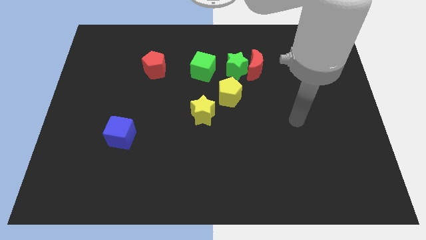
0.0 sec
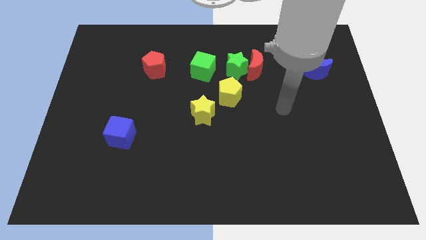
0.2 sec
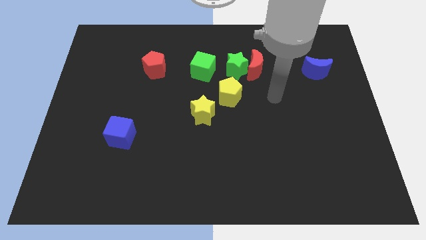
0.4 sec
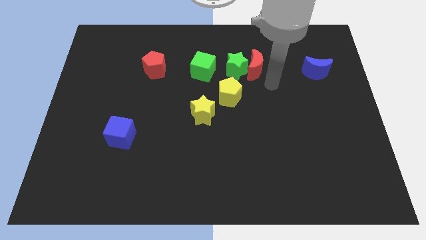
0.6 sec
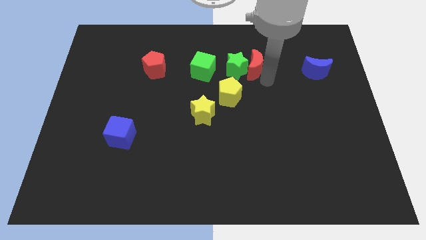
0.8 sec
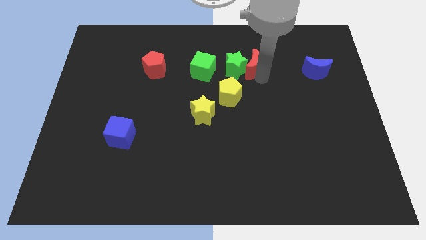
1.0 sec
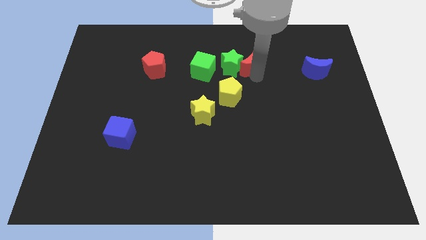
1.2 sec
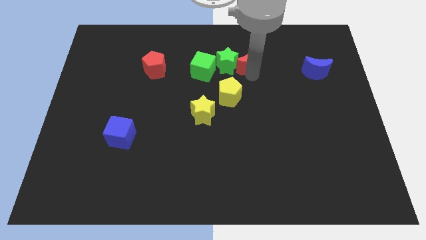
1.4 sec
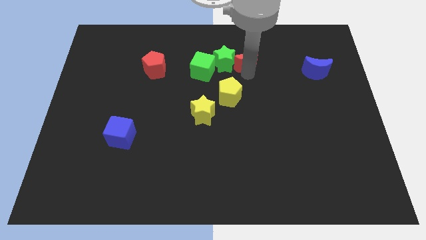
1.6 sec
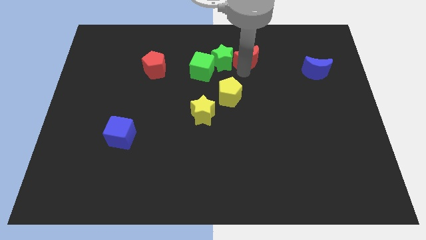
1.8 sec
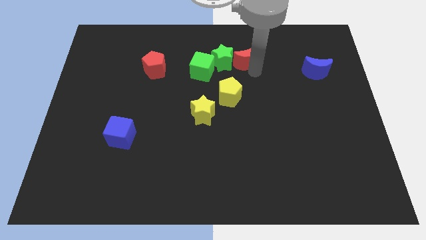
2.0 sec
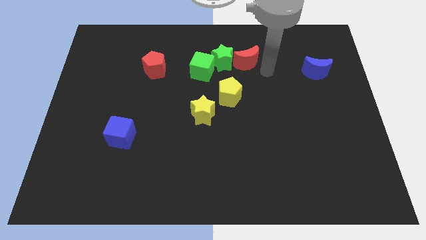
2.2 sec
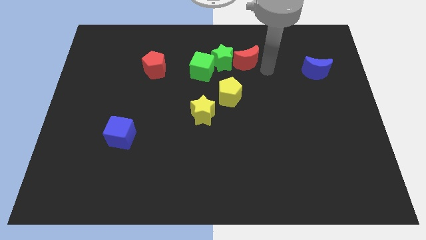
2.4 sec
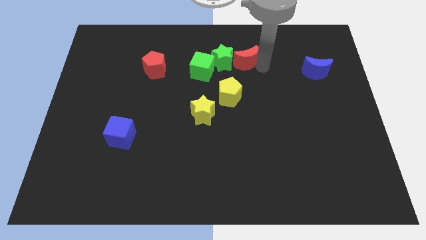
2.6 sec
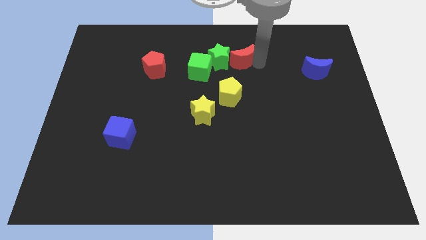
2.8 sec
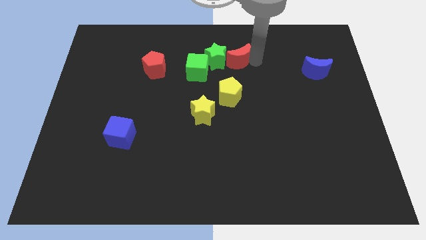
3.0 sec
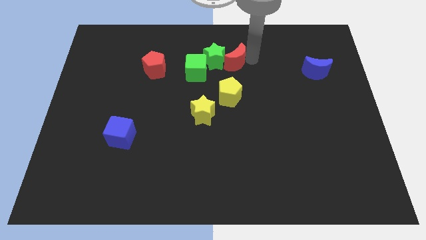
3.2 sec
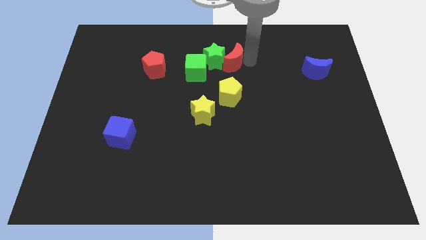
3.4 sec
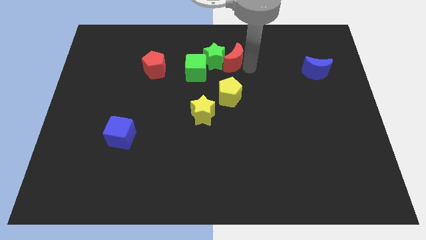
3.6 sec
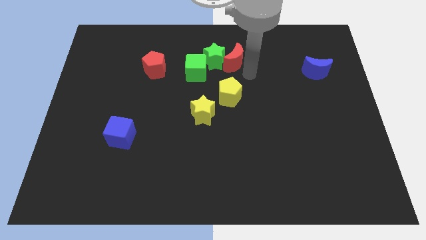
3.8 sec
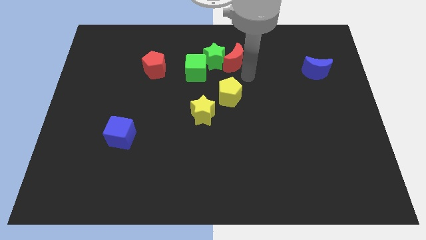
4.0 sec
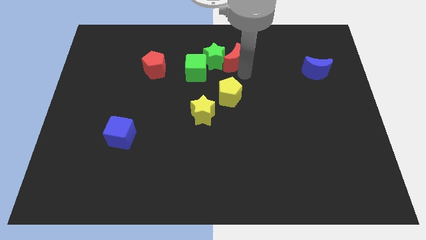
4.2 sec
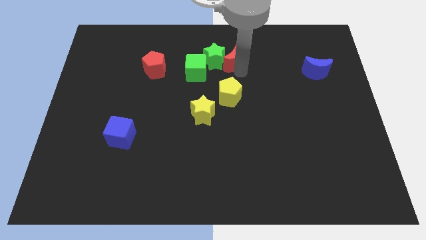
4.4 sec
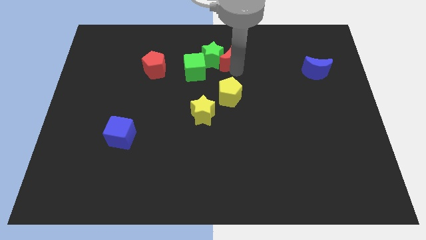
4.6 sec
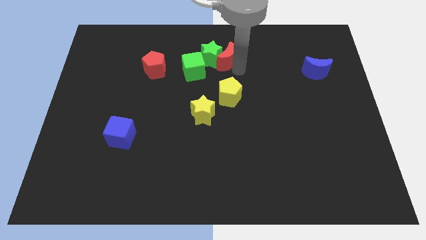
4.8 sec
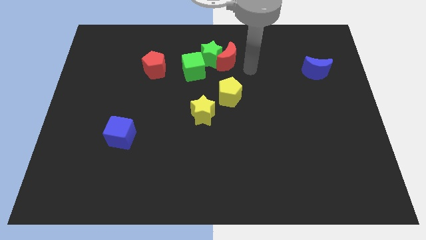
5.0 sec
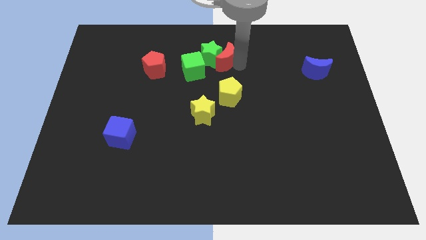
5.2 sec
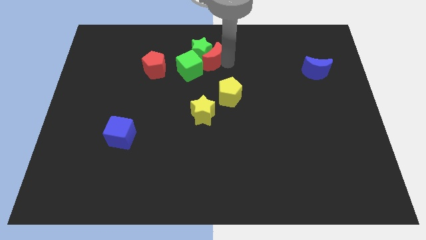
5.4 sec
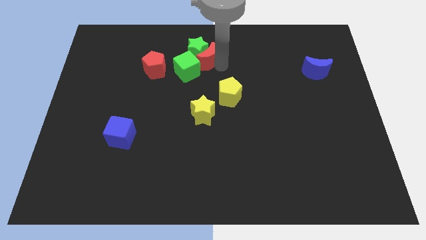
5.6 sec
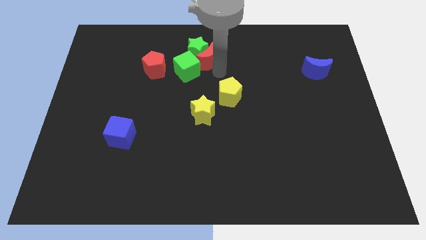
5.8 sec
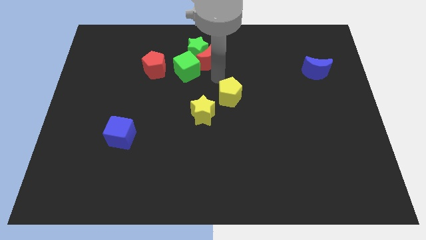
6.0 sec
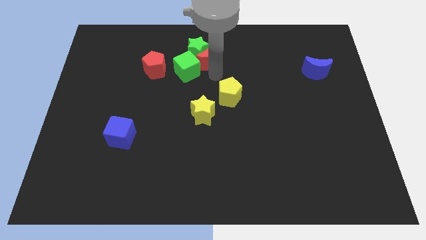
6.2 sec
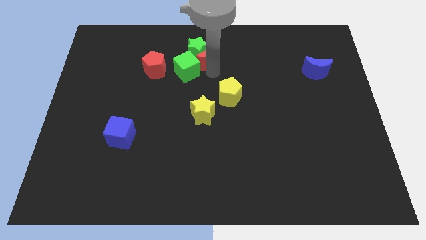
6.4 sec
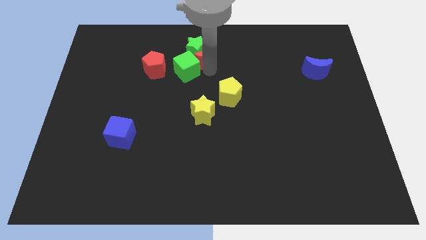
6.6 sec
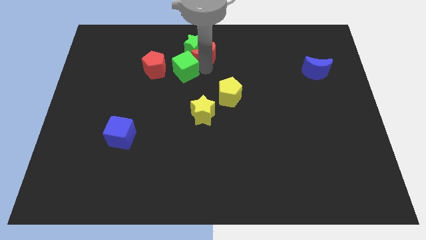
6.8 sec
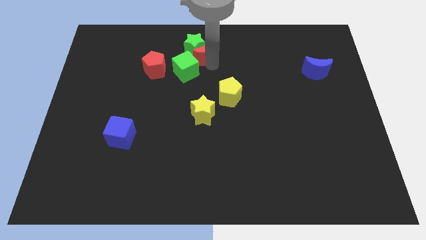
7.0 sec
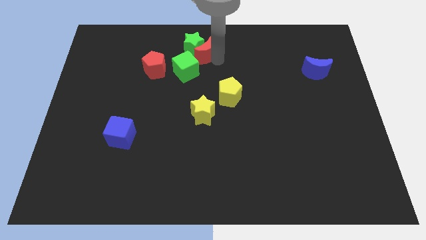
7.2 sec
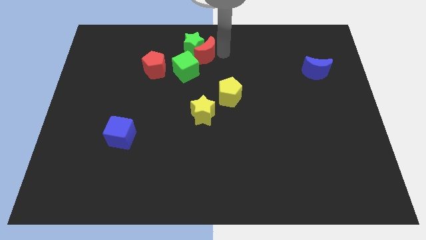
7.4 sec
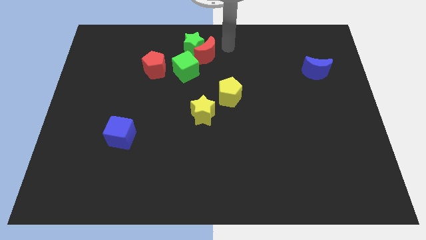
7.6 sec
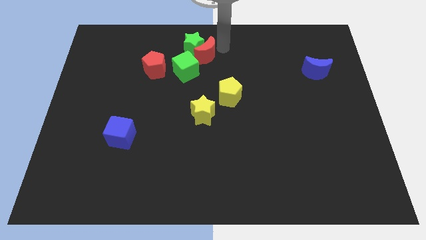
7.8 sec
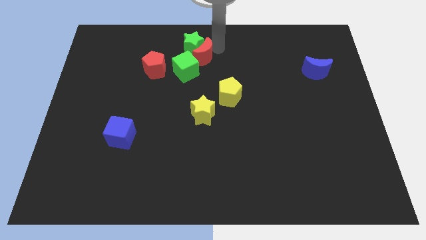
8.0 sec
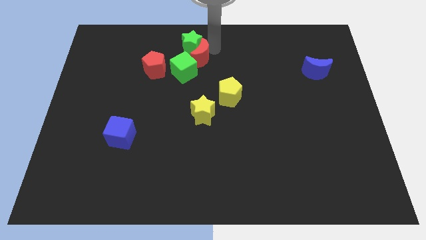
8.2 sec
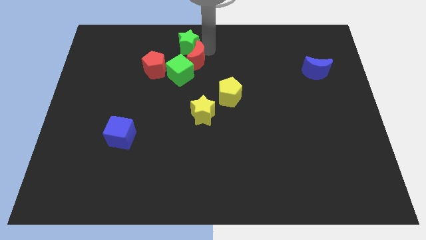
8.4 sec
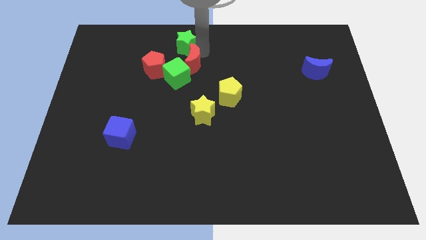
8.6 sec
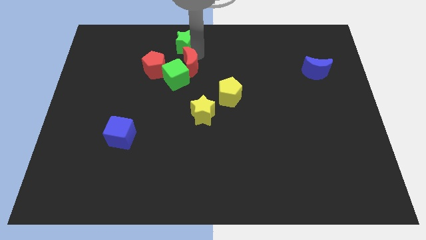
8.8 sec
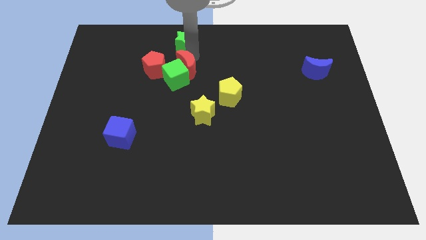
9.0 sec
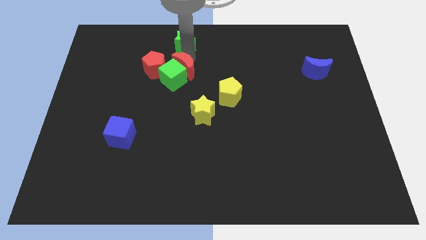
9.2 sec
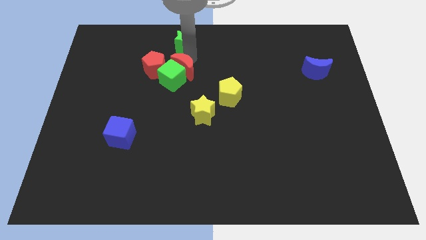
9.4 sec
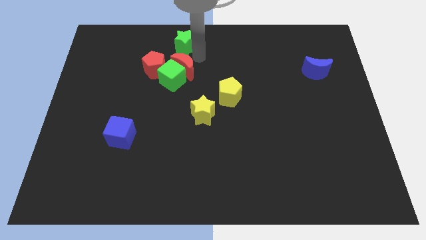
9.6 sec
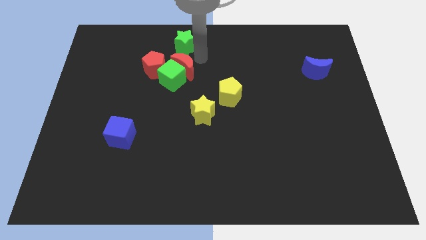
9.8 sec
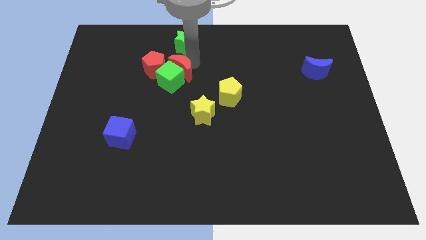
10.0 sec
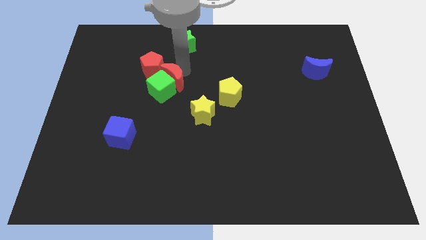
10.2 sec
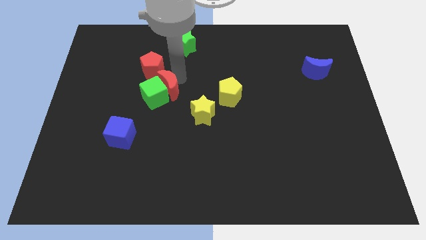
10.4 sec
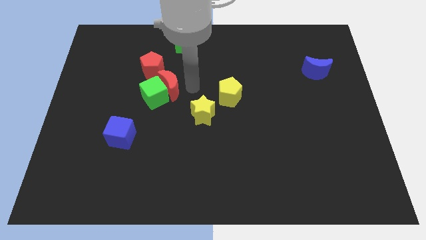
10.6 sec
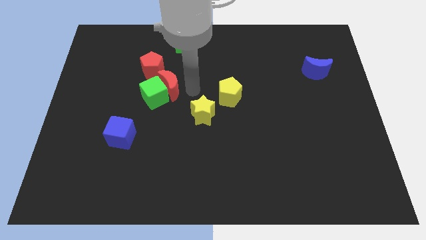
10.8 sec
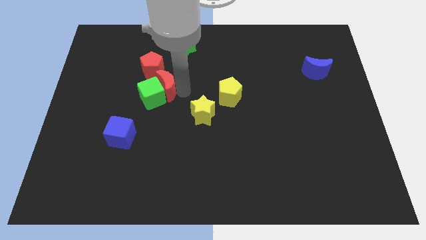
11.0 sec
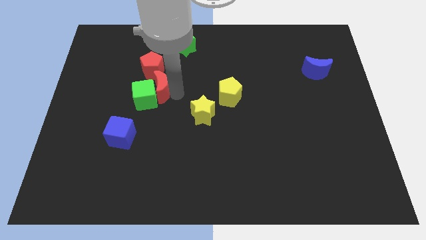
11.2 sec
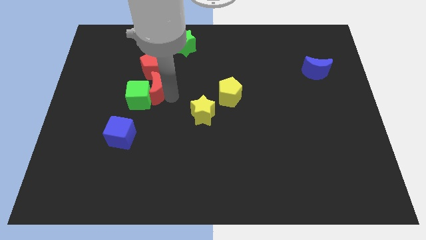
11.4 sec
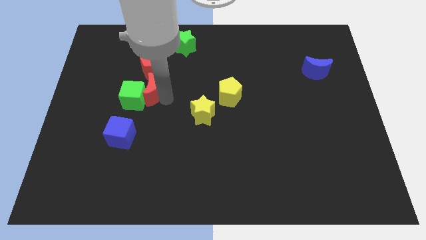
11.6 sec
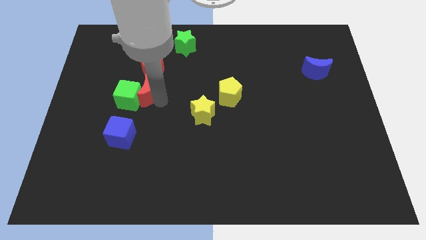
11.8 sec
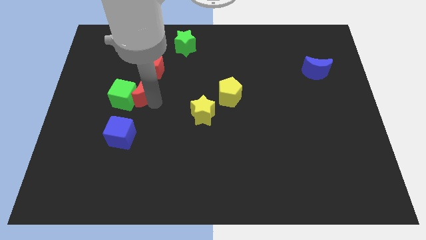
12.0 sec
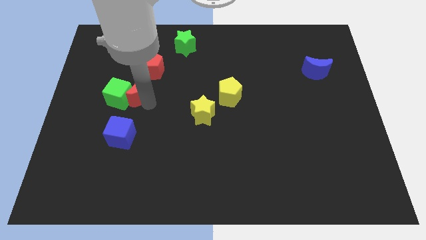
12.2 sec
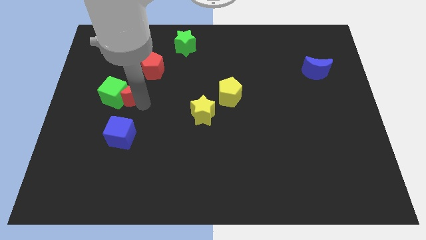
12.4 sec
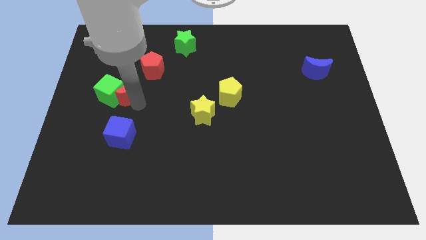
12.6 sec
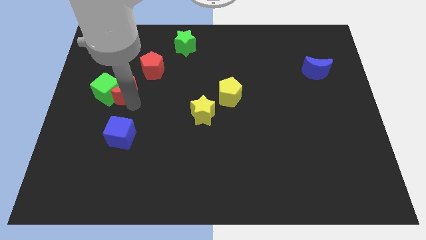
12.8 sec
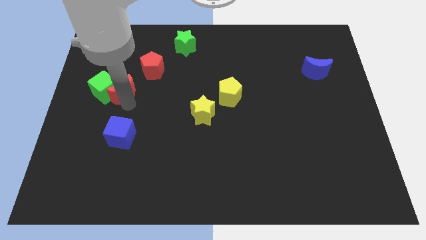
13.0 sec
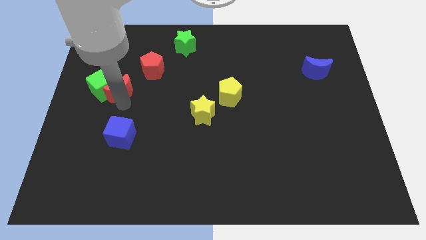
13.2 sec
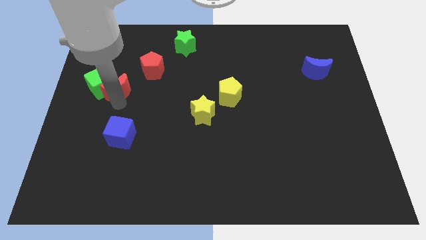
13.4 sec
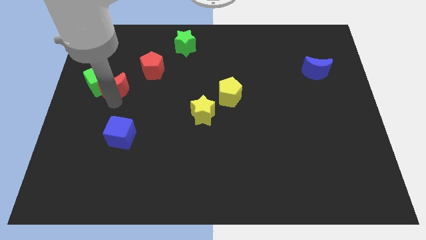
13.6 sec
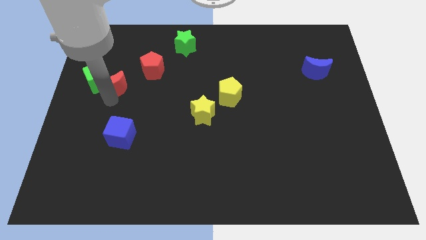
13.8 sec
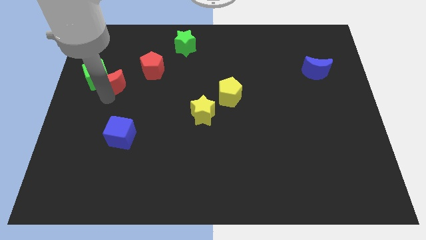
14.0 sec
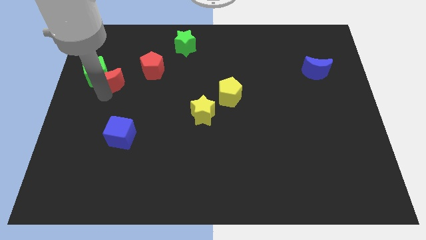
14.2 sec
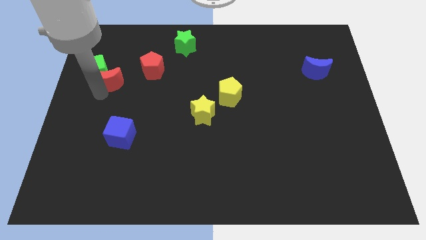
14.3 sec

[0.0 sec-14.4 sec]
move the red moon to the left side of the board
